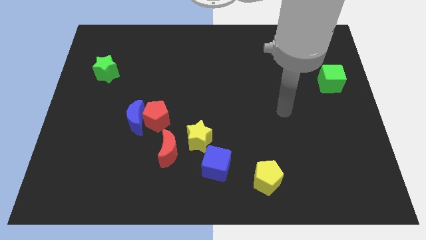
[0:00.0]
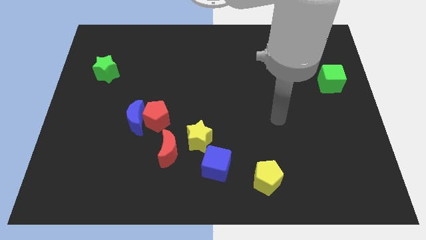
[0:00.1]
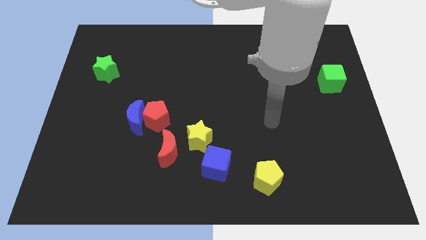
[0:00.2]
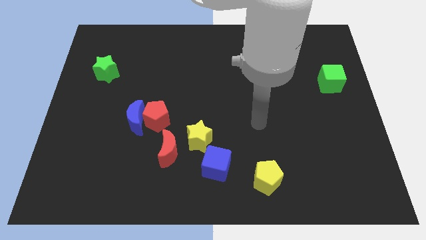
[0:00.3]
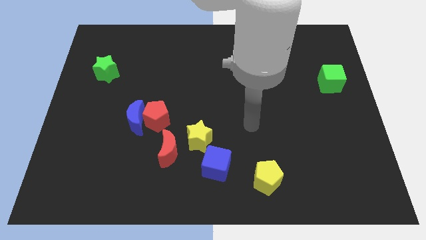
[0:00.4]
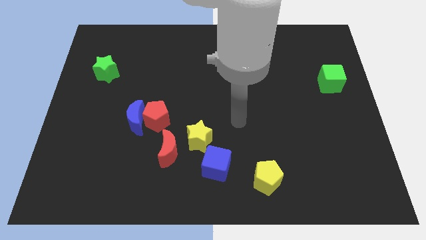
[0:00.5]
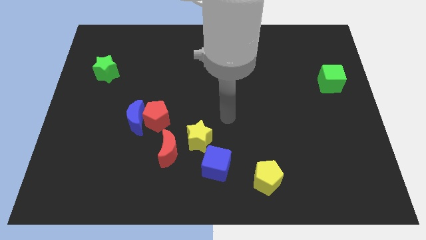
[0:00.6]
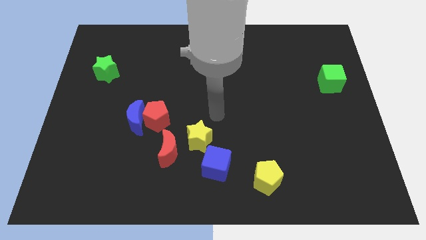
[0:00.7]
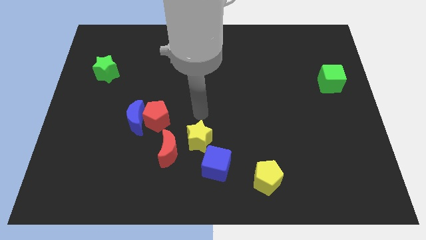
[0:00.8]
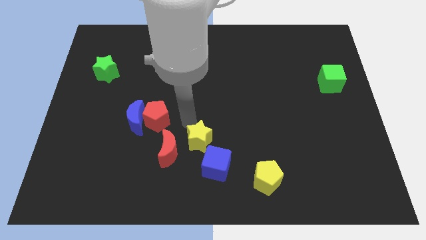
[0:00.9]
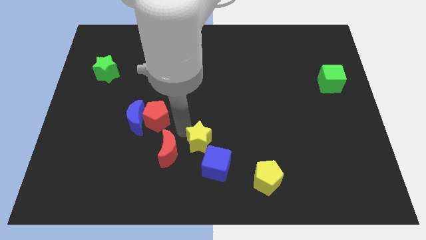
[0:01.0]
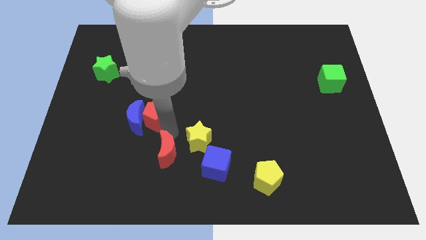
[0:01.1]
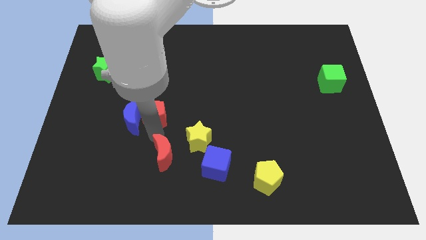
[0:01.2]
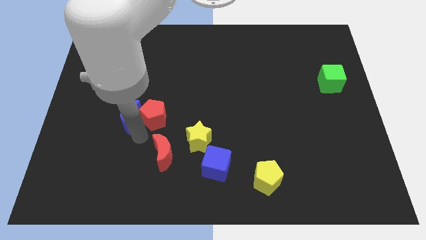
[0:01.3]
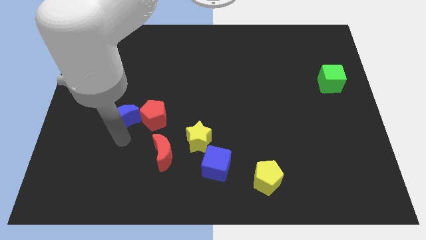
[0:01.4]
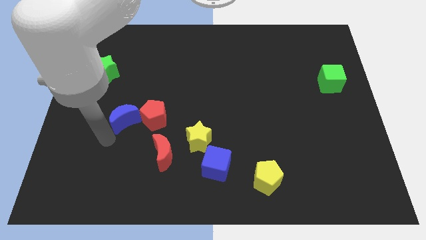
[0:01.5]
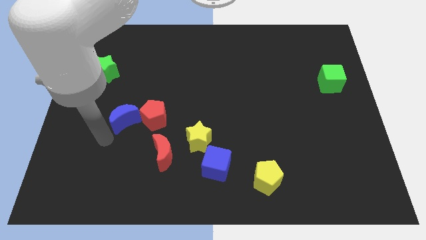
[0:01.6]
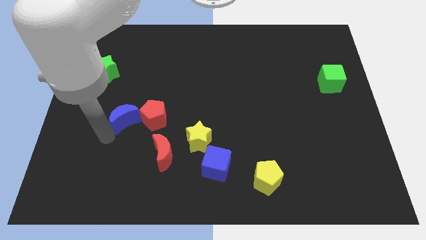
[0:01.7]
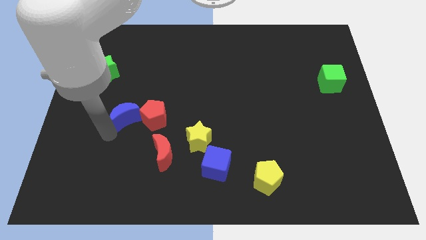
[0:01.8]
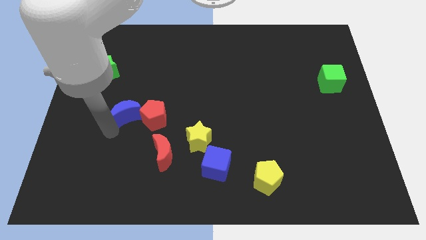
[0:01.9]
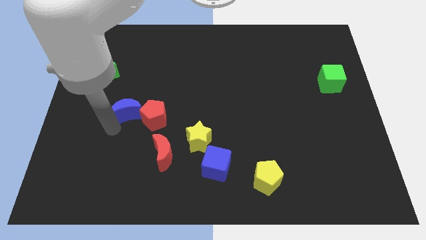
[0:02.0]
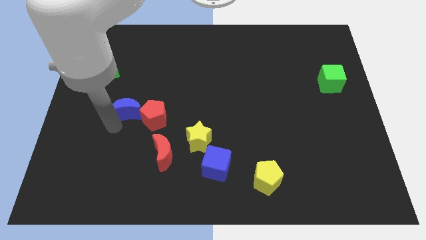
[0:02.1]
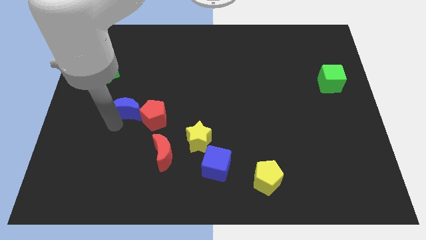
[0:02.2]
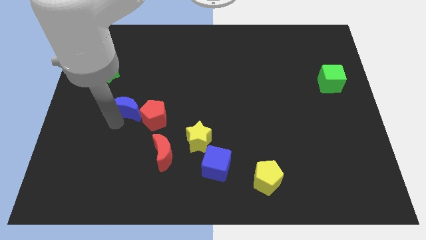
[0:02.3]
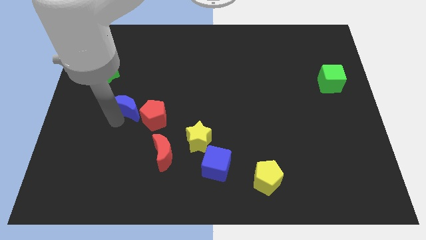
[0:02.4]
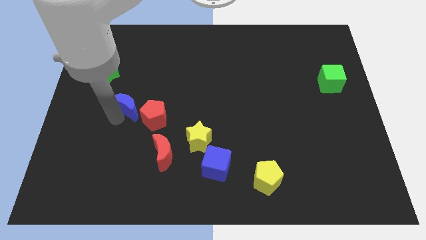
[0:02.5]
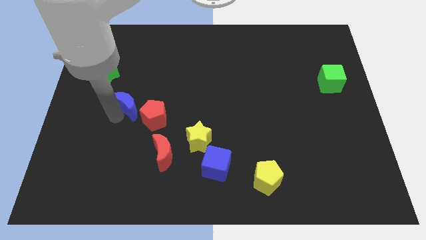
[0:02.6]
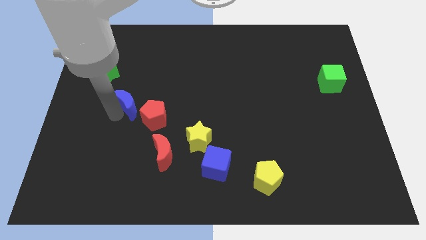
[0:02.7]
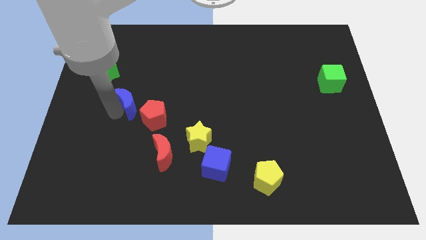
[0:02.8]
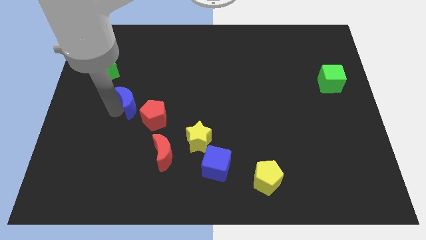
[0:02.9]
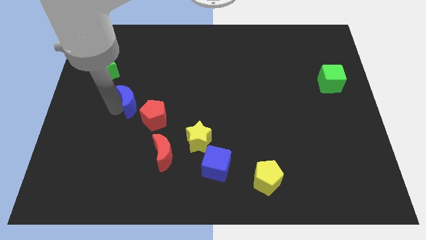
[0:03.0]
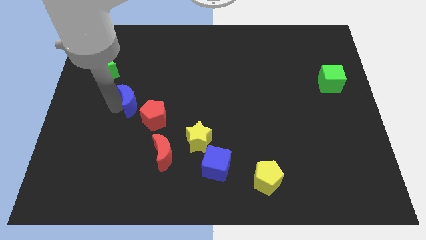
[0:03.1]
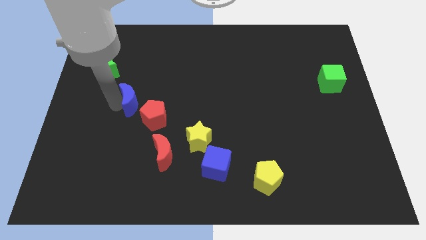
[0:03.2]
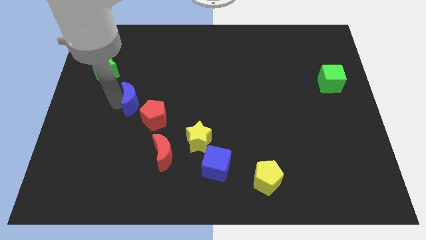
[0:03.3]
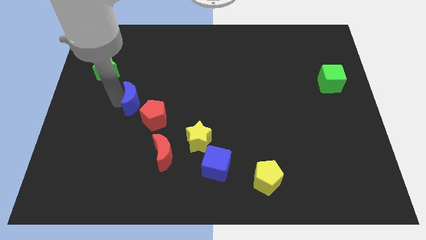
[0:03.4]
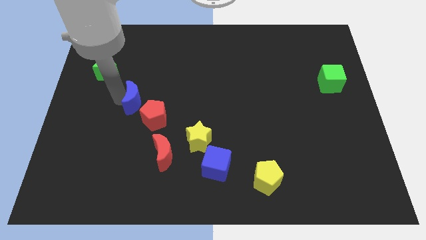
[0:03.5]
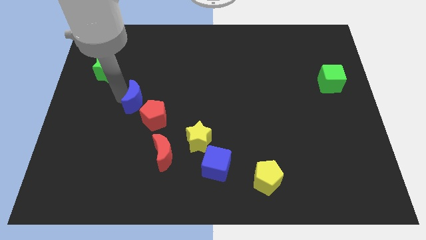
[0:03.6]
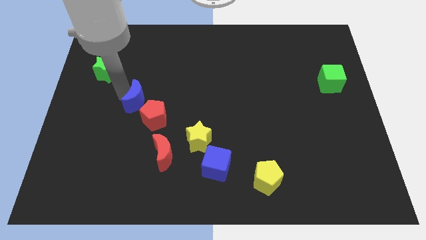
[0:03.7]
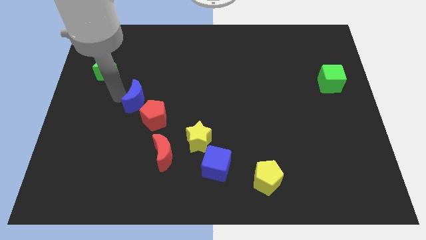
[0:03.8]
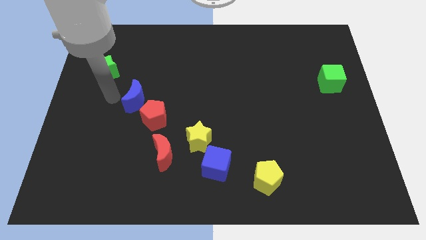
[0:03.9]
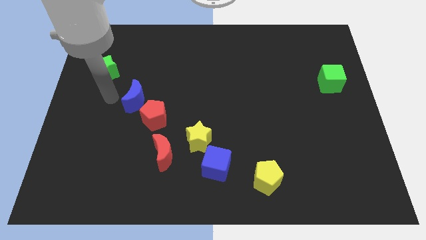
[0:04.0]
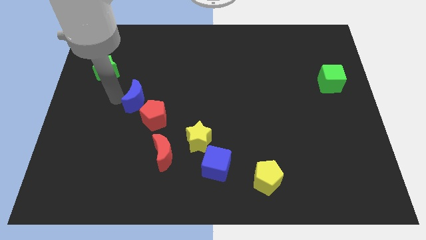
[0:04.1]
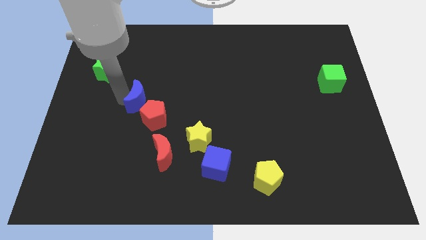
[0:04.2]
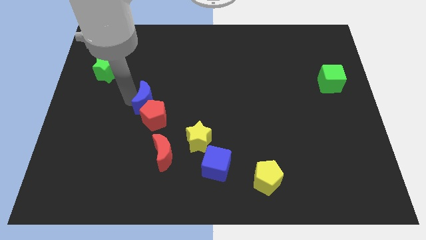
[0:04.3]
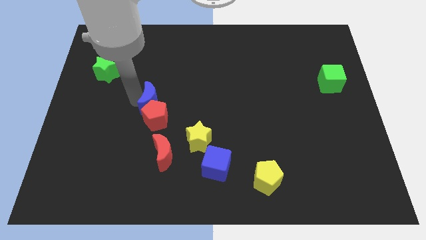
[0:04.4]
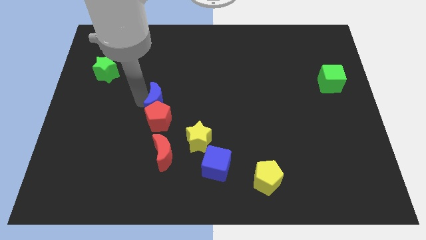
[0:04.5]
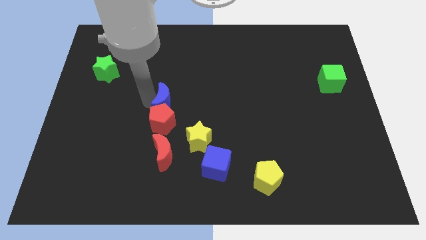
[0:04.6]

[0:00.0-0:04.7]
push the blue moon to the middle of the board

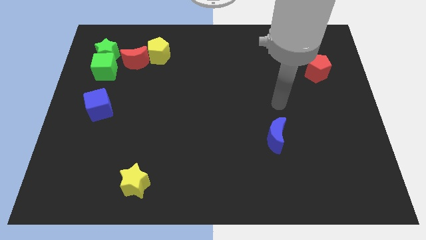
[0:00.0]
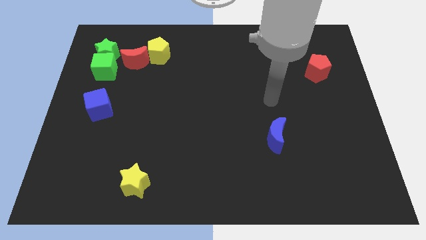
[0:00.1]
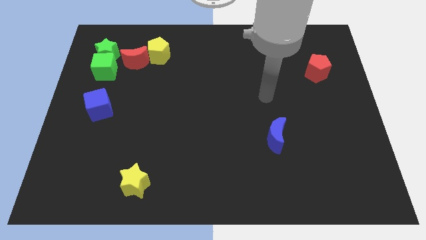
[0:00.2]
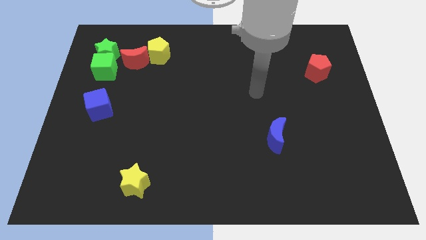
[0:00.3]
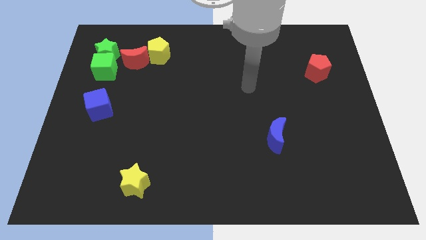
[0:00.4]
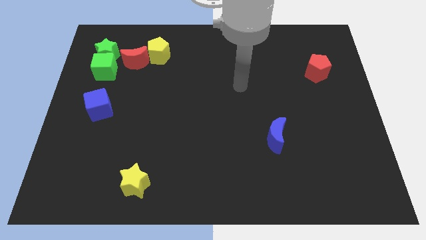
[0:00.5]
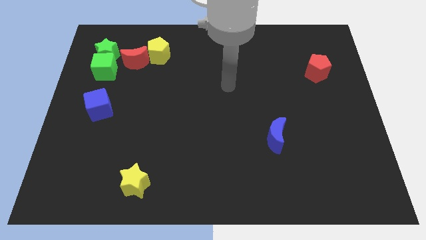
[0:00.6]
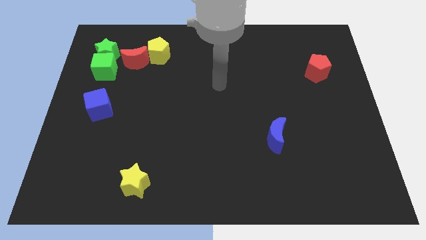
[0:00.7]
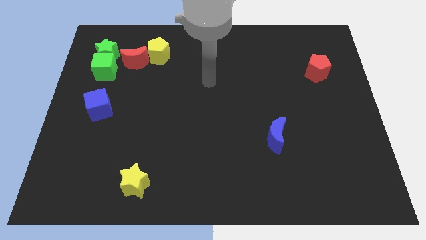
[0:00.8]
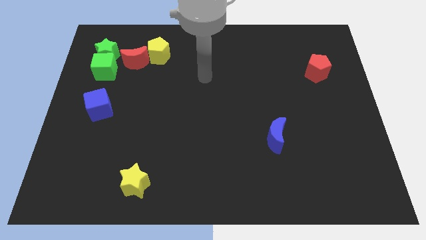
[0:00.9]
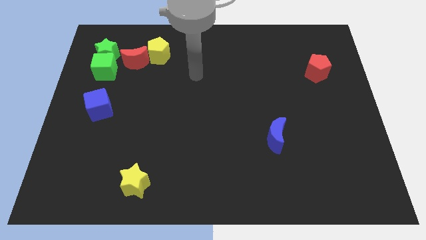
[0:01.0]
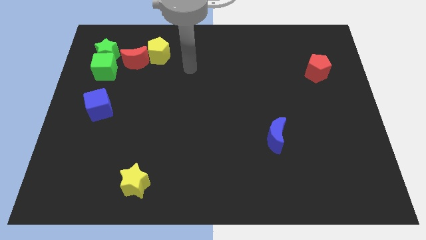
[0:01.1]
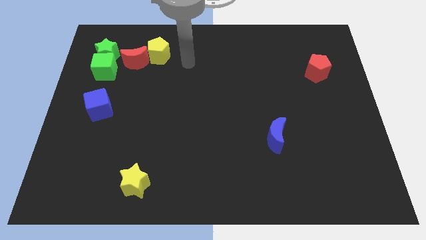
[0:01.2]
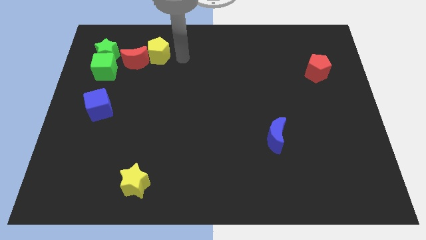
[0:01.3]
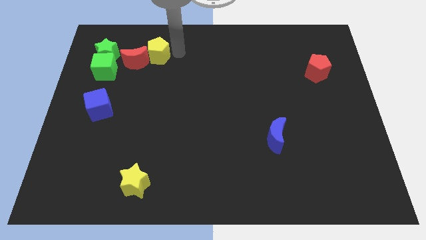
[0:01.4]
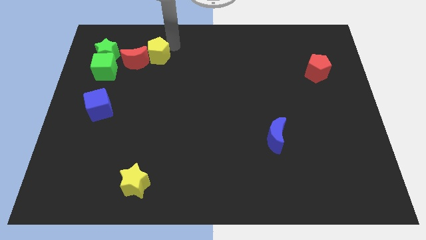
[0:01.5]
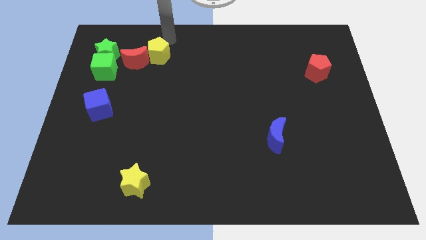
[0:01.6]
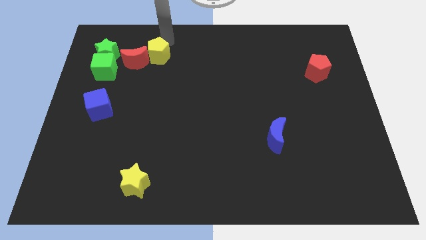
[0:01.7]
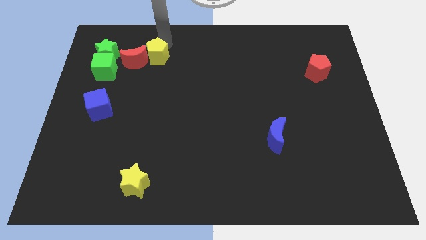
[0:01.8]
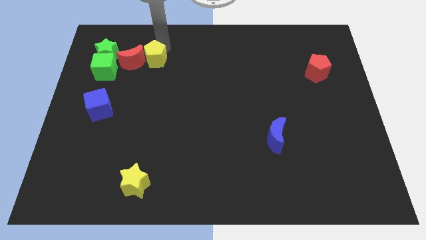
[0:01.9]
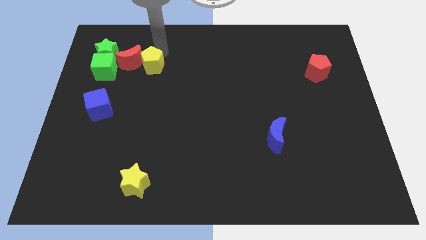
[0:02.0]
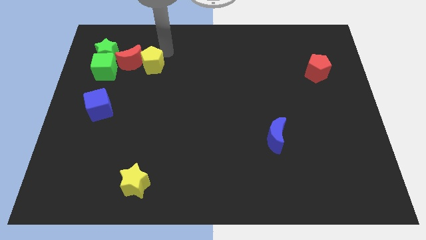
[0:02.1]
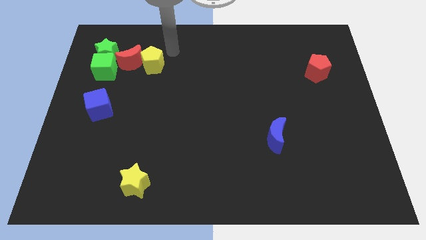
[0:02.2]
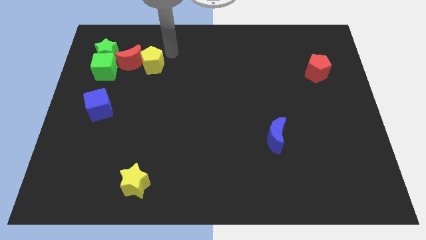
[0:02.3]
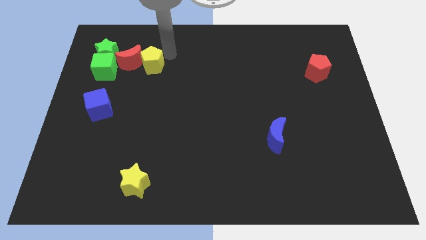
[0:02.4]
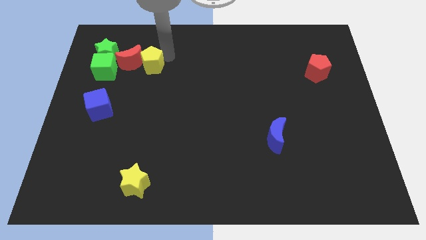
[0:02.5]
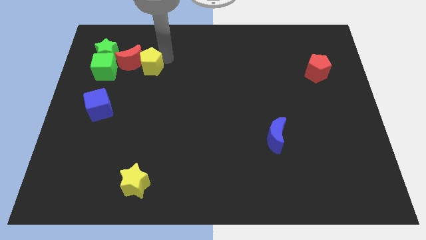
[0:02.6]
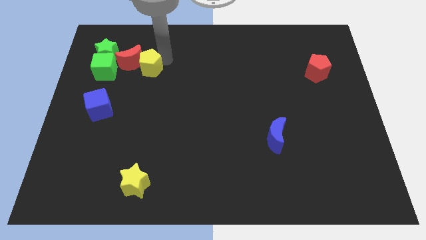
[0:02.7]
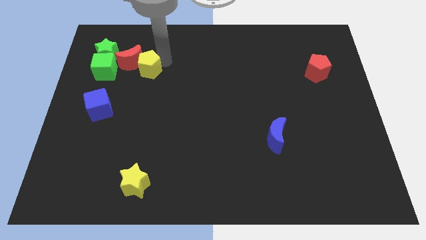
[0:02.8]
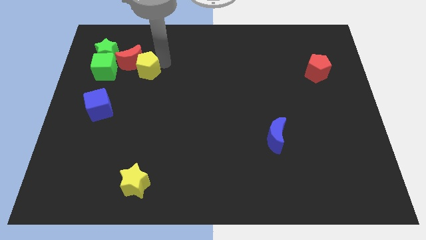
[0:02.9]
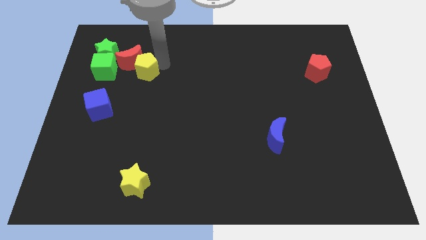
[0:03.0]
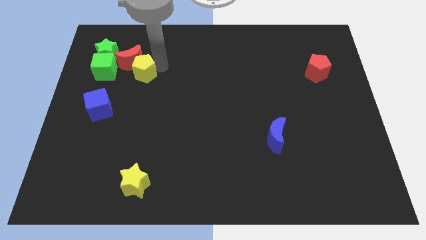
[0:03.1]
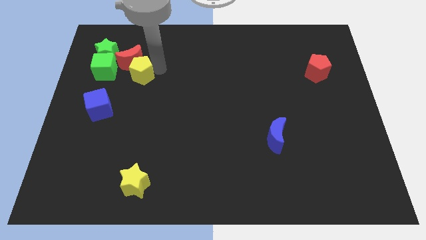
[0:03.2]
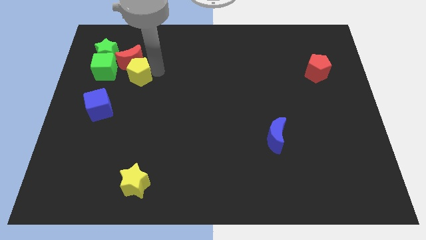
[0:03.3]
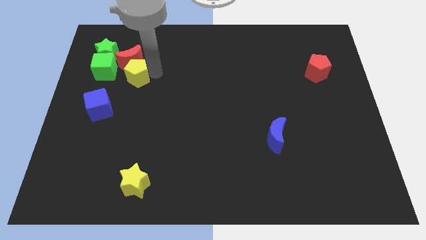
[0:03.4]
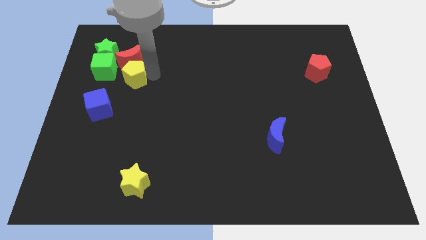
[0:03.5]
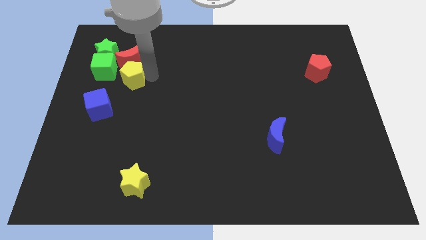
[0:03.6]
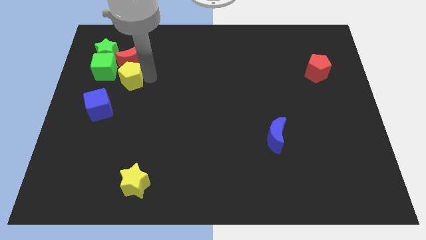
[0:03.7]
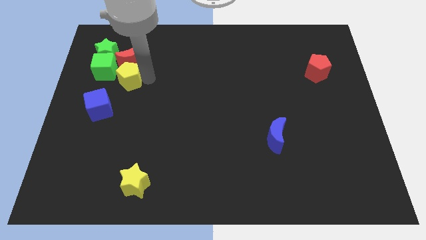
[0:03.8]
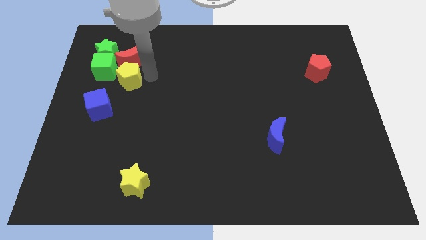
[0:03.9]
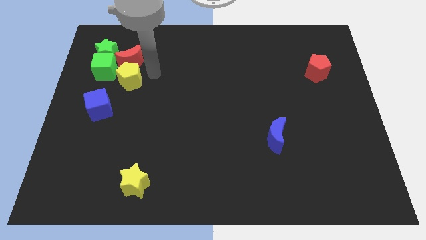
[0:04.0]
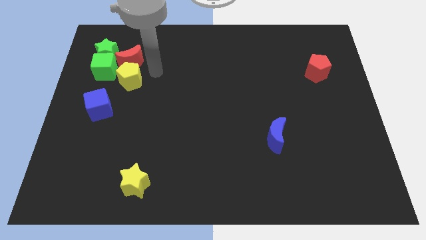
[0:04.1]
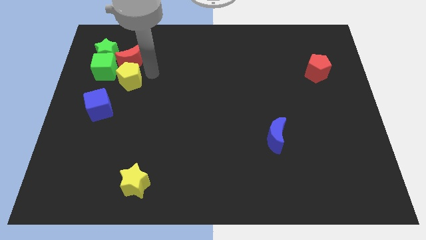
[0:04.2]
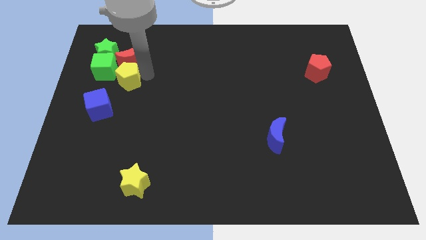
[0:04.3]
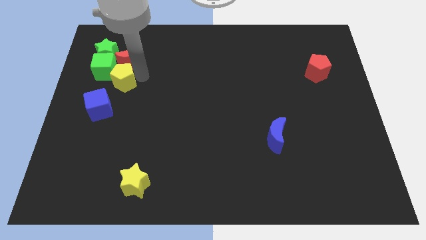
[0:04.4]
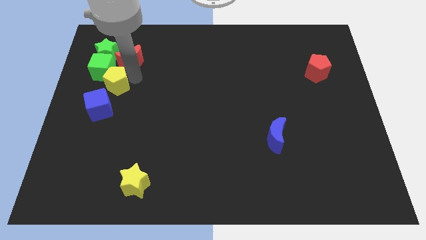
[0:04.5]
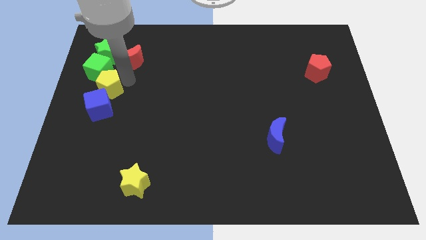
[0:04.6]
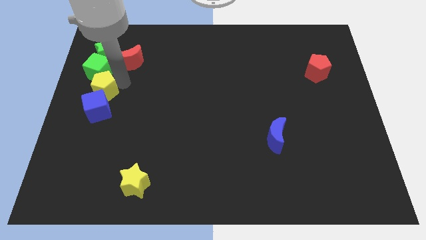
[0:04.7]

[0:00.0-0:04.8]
slide the yellow pentagon to the center left
